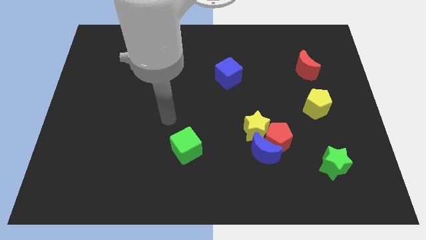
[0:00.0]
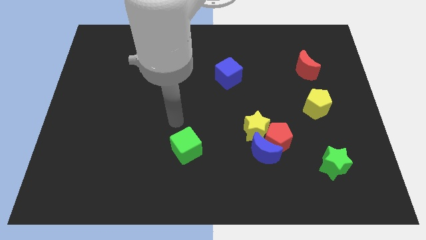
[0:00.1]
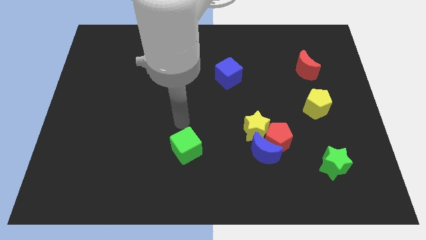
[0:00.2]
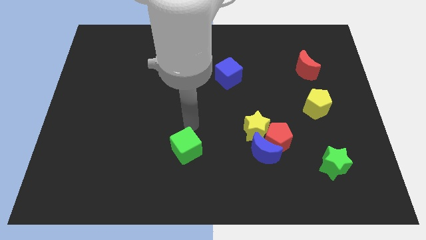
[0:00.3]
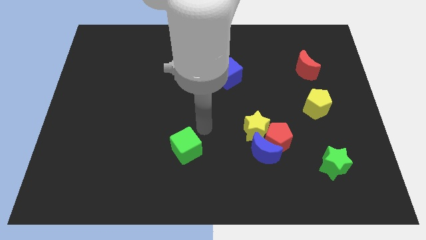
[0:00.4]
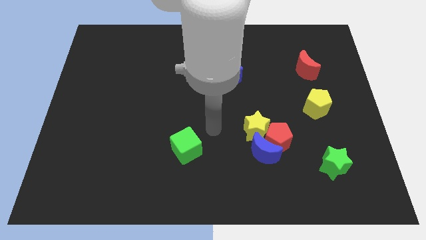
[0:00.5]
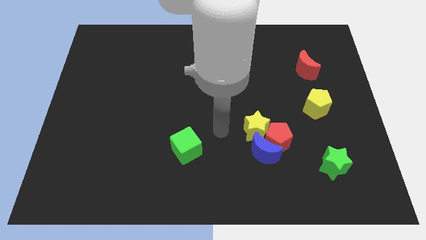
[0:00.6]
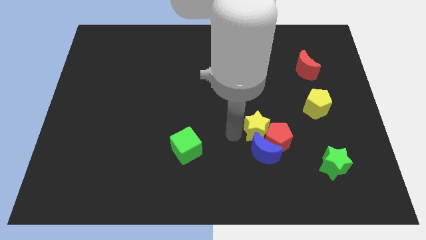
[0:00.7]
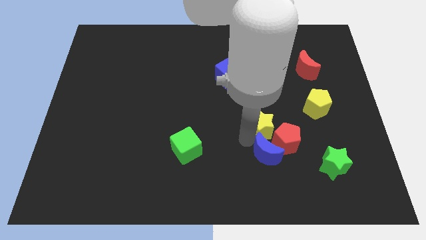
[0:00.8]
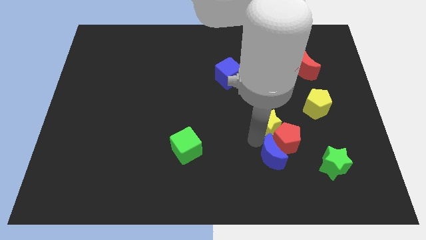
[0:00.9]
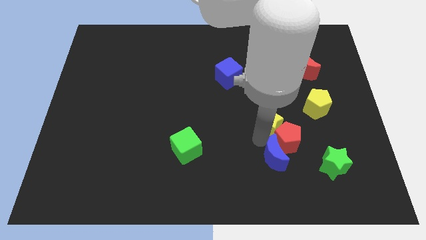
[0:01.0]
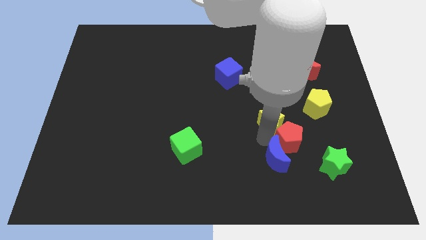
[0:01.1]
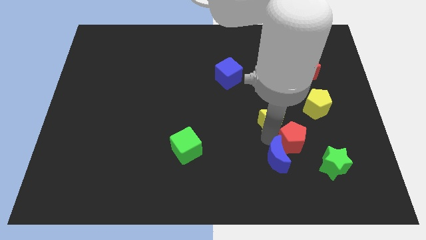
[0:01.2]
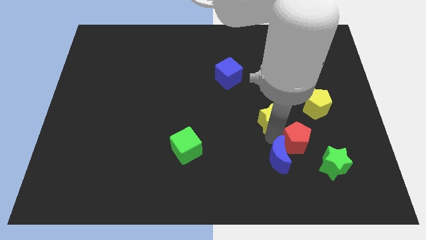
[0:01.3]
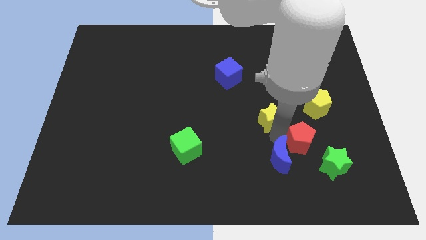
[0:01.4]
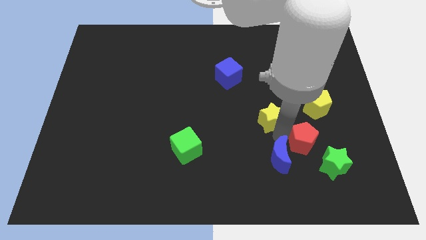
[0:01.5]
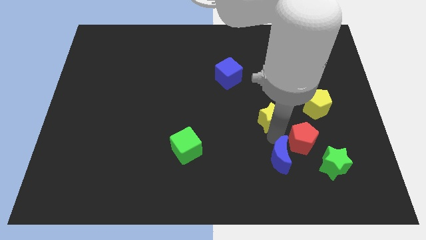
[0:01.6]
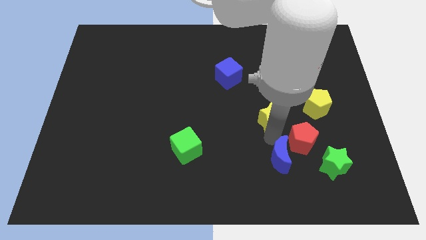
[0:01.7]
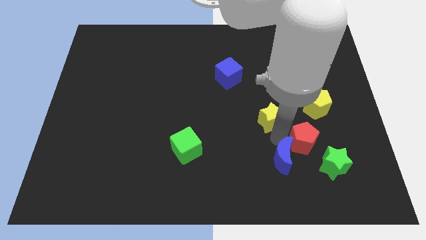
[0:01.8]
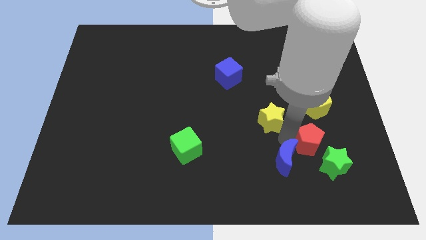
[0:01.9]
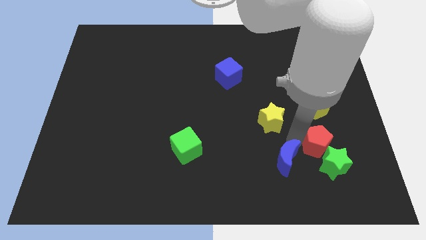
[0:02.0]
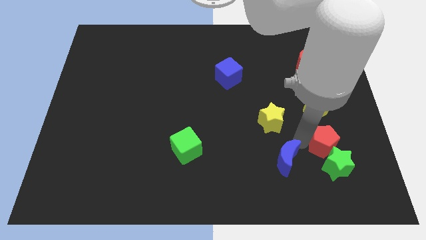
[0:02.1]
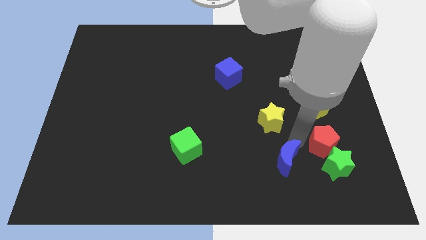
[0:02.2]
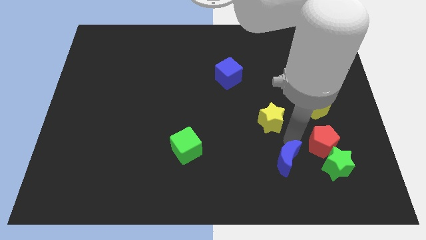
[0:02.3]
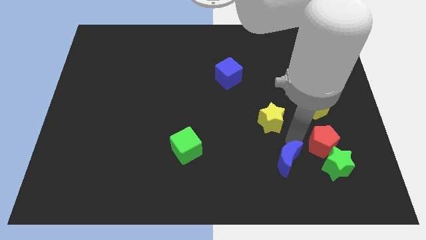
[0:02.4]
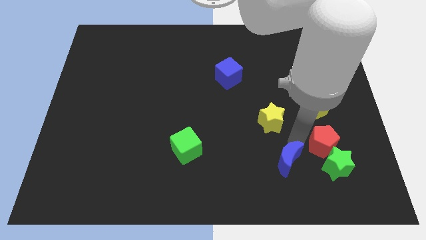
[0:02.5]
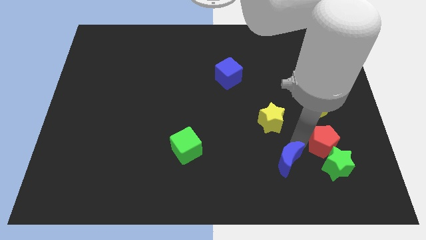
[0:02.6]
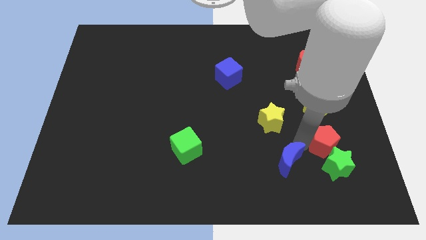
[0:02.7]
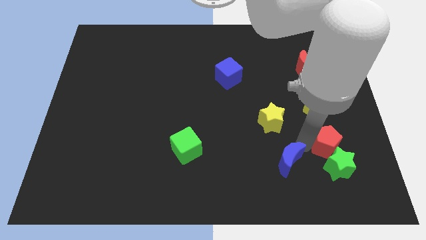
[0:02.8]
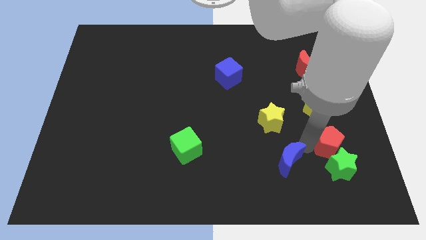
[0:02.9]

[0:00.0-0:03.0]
move the red pentagon away from the blue moon and yellow star

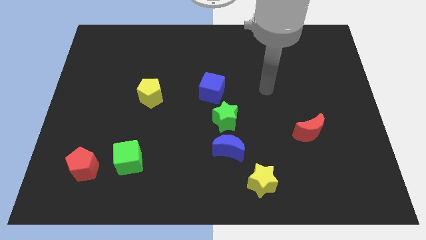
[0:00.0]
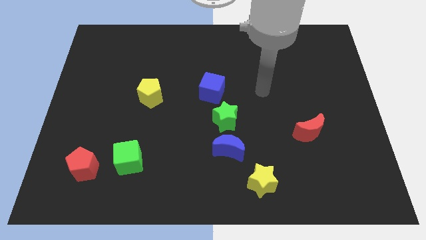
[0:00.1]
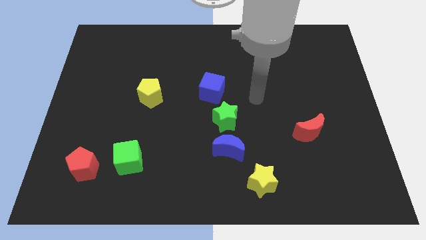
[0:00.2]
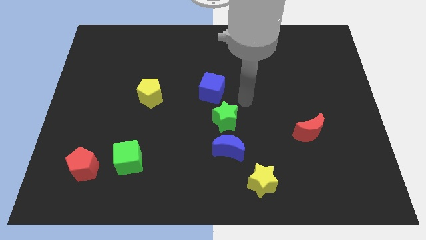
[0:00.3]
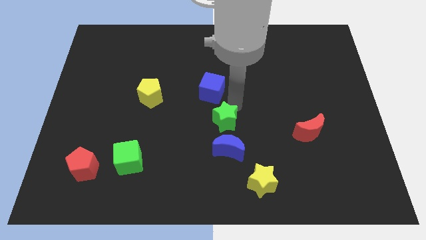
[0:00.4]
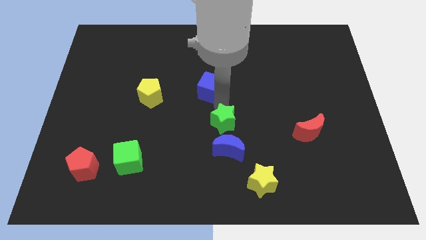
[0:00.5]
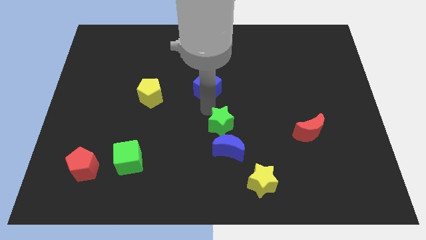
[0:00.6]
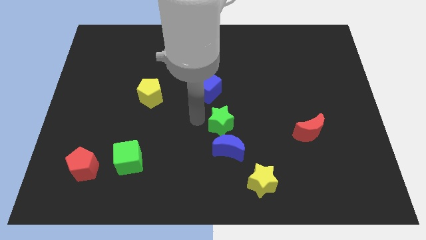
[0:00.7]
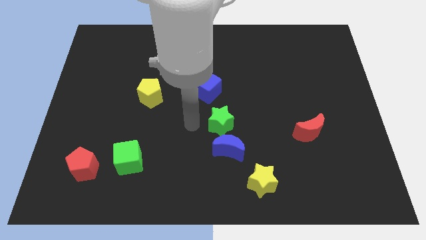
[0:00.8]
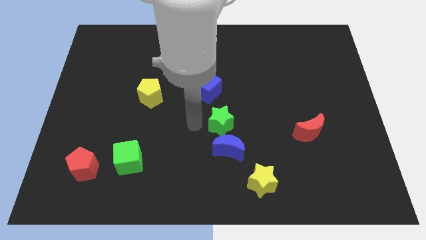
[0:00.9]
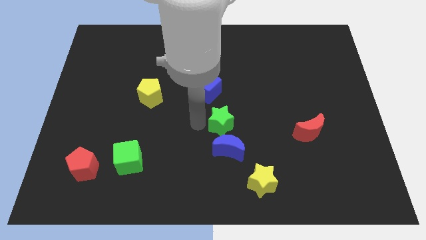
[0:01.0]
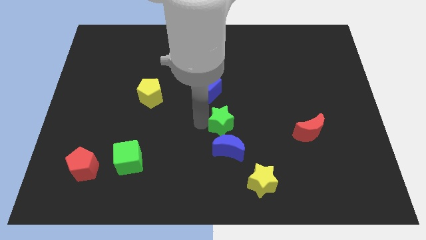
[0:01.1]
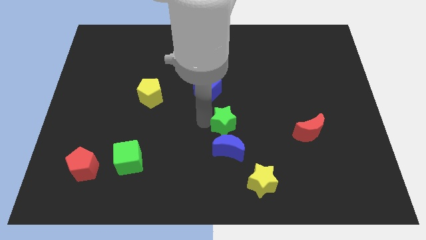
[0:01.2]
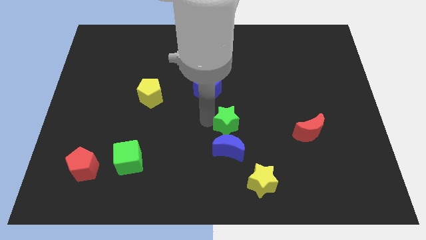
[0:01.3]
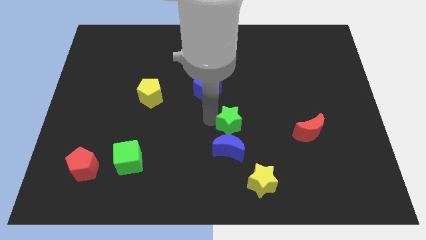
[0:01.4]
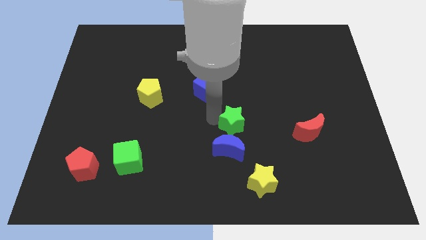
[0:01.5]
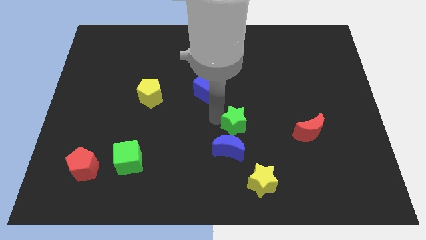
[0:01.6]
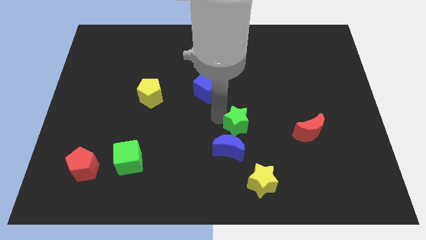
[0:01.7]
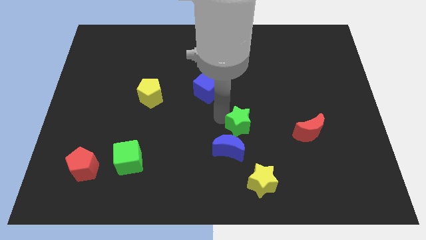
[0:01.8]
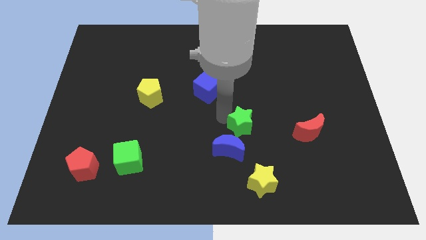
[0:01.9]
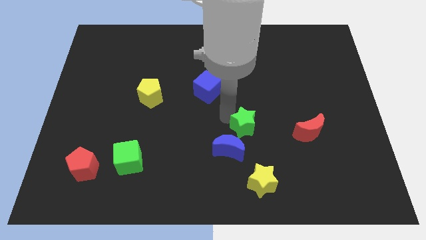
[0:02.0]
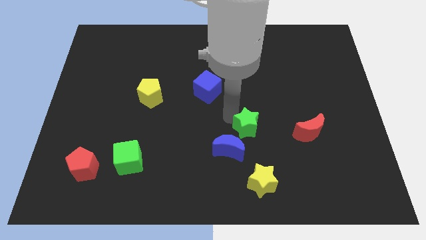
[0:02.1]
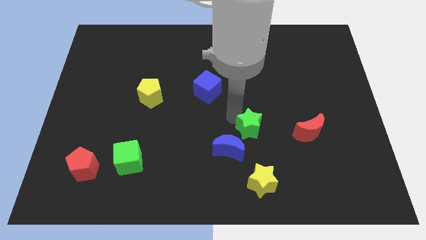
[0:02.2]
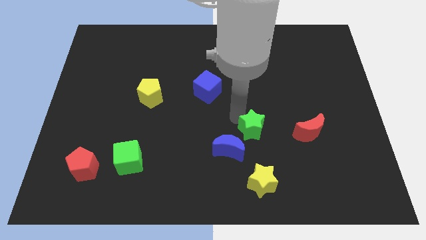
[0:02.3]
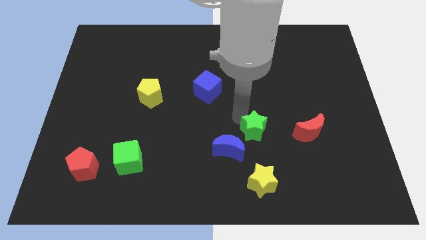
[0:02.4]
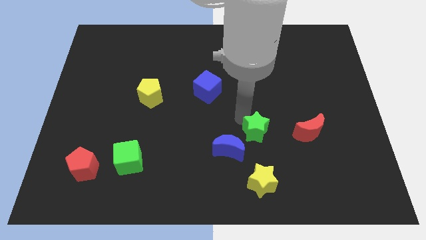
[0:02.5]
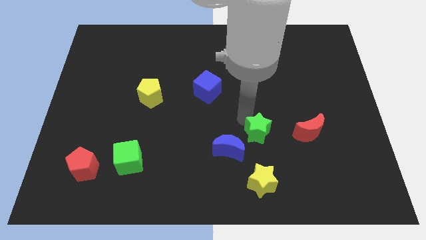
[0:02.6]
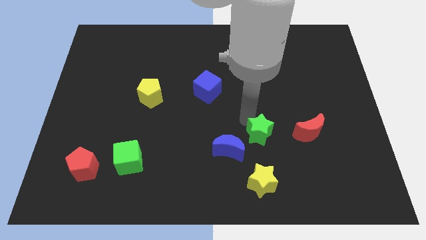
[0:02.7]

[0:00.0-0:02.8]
separate the green star from the blue moon and blue cube

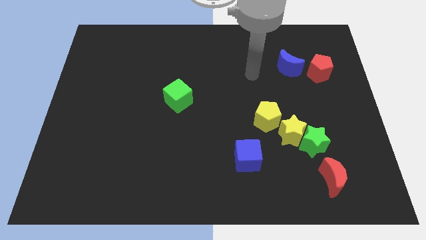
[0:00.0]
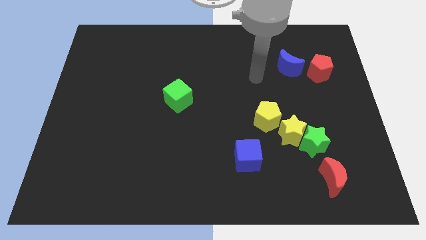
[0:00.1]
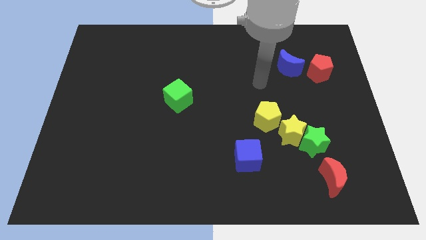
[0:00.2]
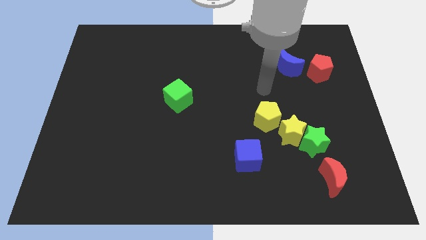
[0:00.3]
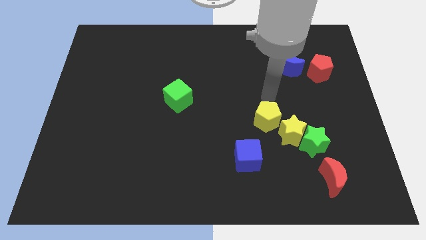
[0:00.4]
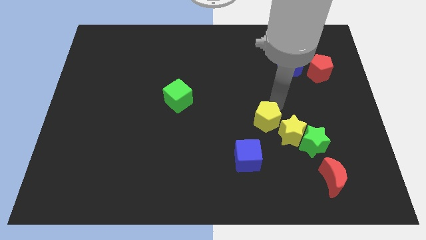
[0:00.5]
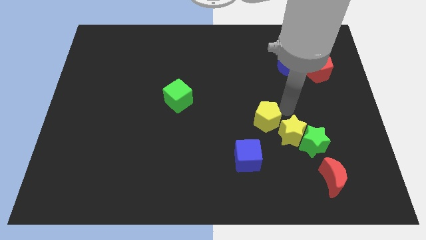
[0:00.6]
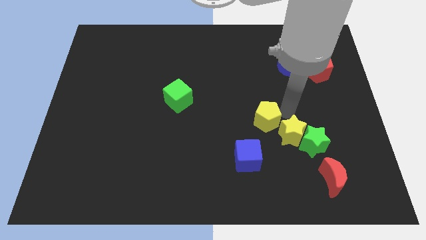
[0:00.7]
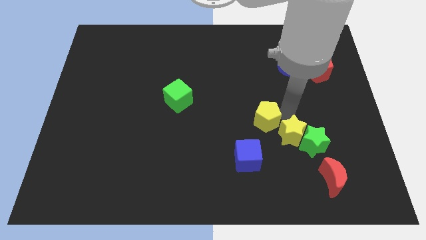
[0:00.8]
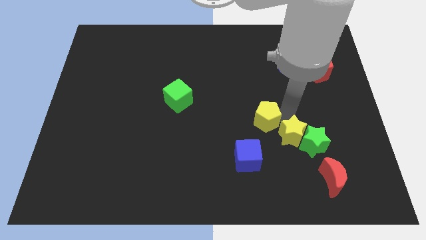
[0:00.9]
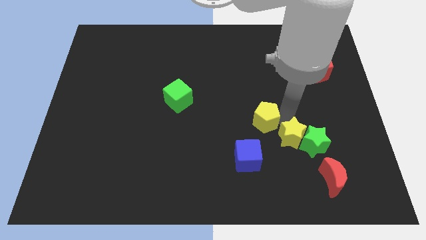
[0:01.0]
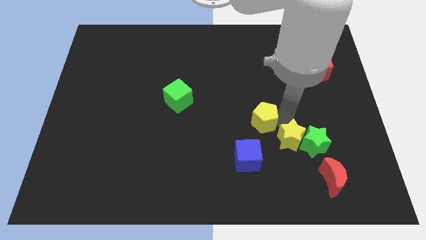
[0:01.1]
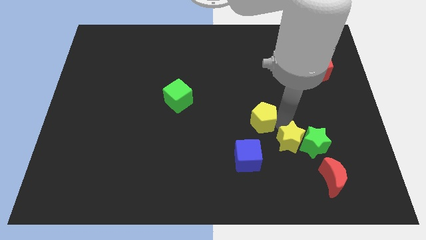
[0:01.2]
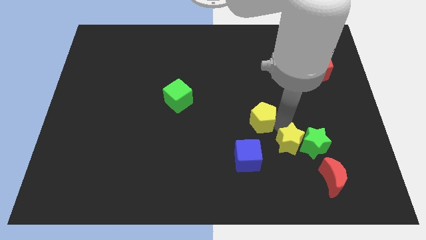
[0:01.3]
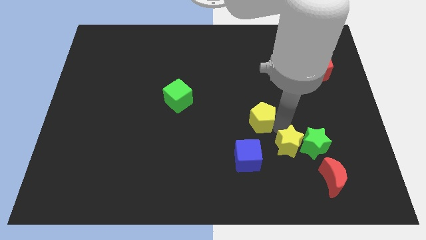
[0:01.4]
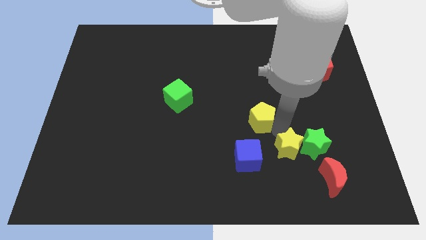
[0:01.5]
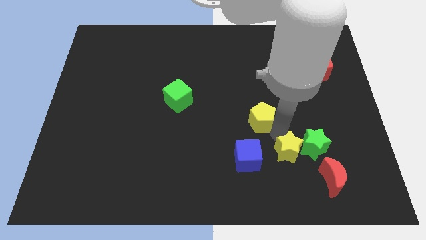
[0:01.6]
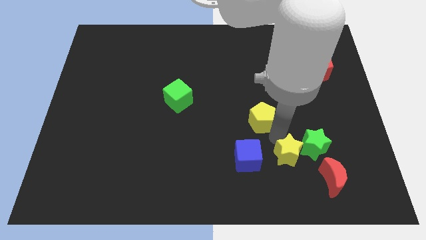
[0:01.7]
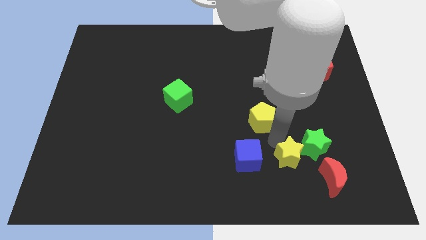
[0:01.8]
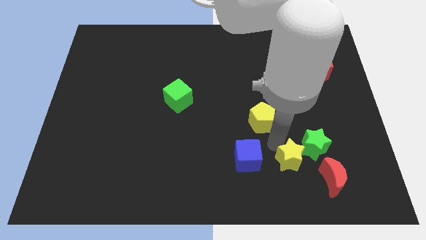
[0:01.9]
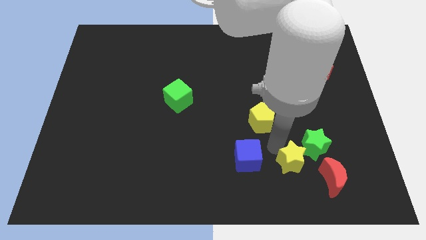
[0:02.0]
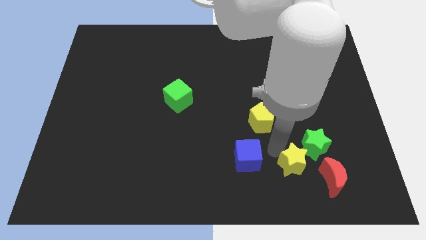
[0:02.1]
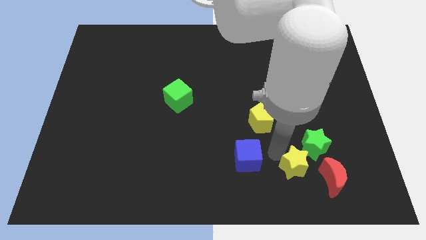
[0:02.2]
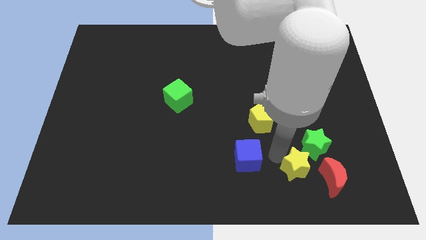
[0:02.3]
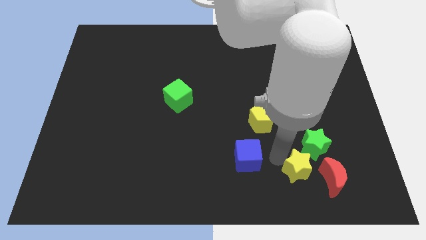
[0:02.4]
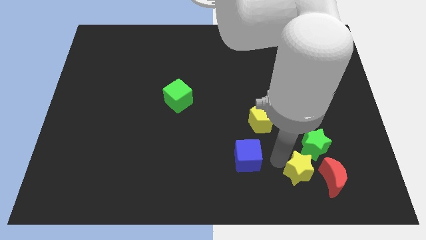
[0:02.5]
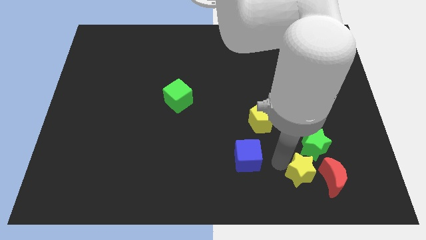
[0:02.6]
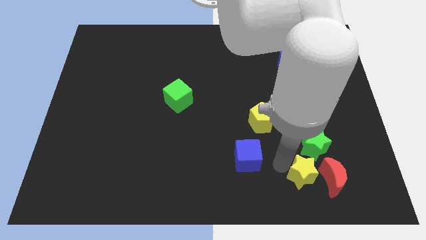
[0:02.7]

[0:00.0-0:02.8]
move the yellow star away from the green star and yellow pentagon

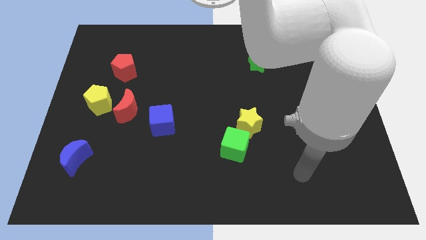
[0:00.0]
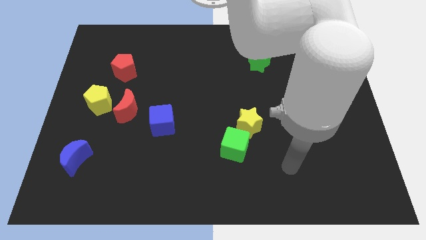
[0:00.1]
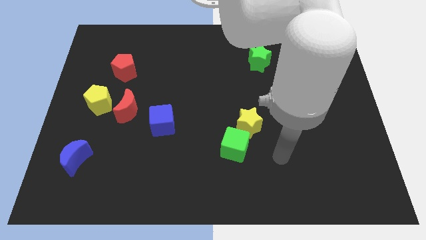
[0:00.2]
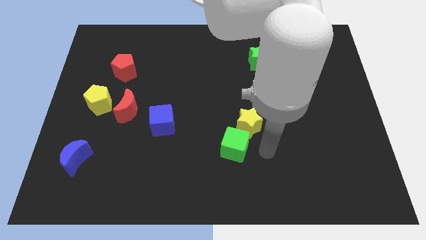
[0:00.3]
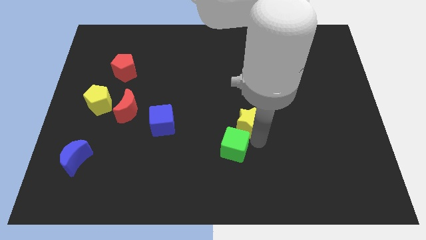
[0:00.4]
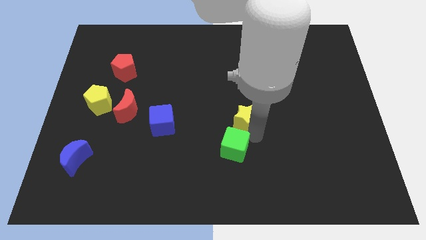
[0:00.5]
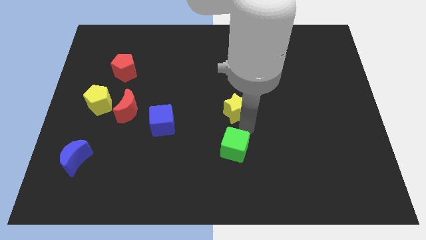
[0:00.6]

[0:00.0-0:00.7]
move the green cube away from the yellow star
